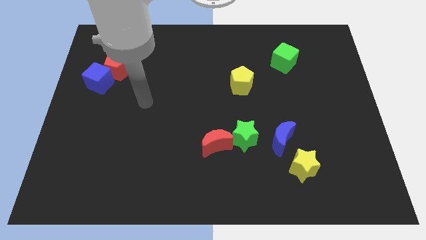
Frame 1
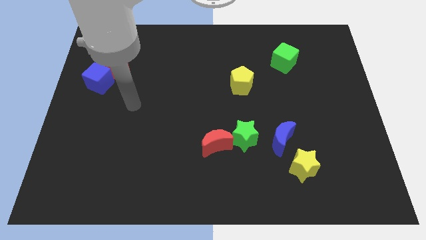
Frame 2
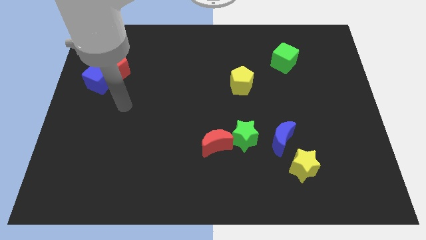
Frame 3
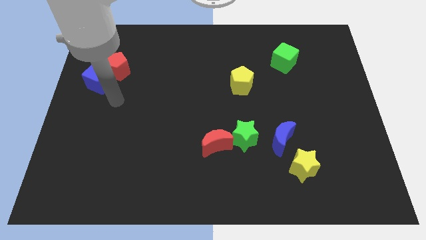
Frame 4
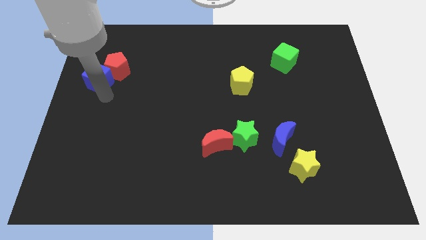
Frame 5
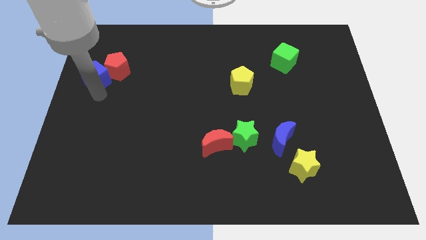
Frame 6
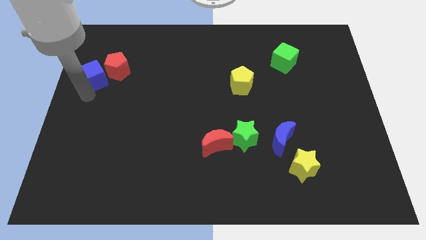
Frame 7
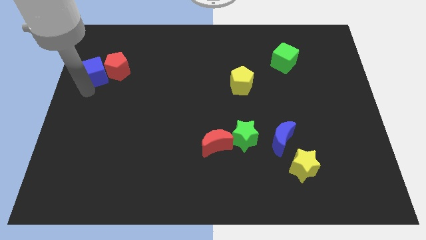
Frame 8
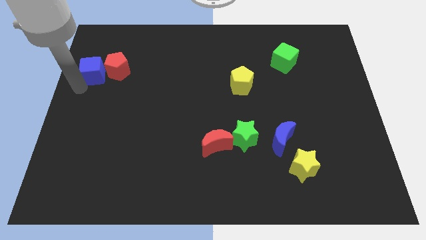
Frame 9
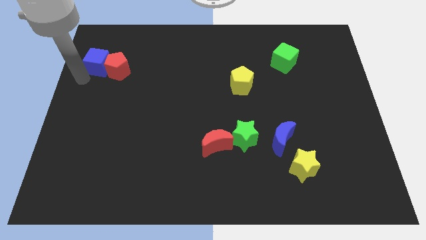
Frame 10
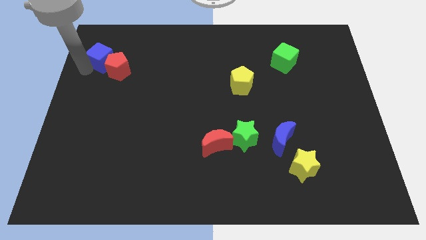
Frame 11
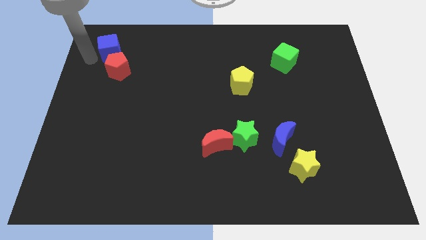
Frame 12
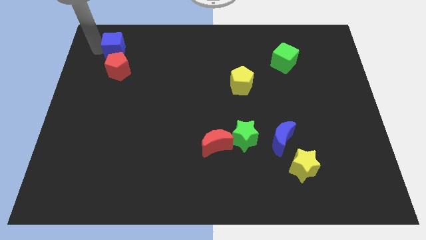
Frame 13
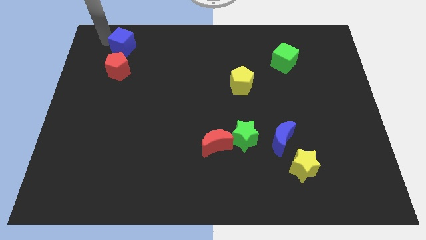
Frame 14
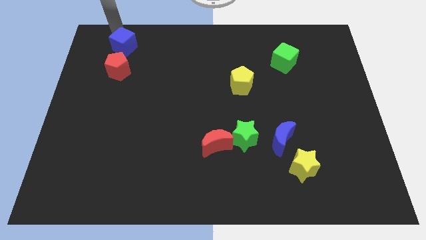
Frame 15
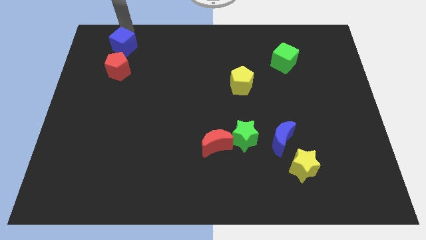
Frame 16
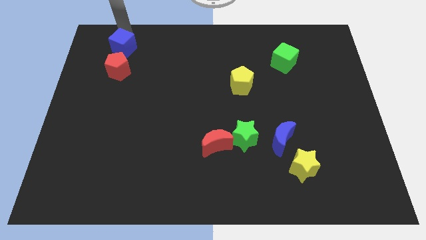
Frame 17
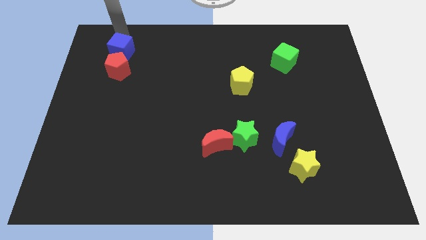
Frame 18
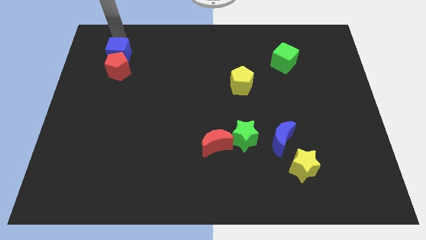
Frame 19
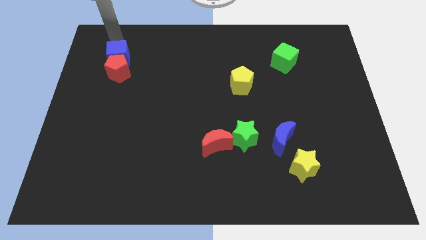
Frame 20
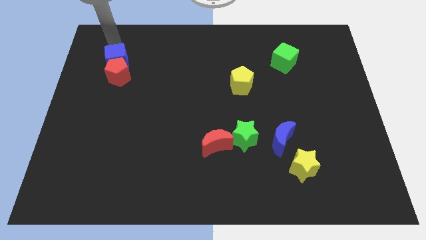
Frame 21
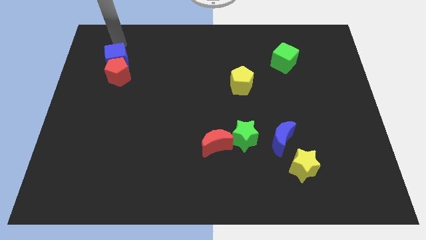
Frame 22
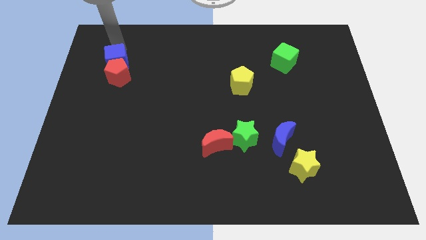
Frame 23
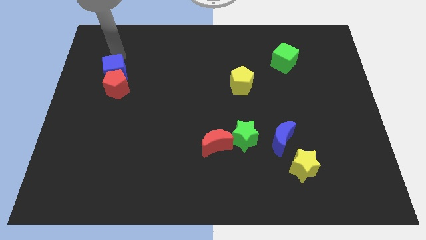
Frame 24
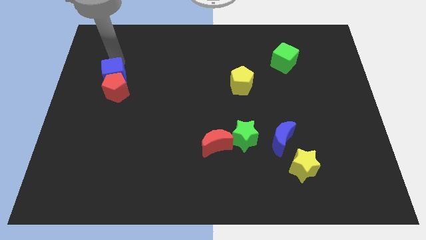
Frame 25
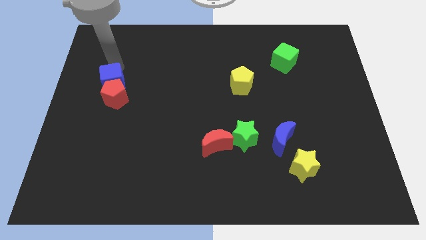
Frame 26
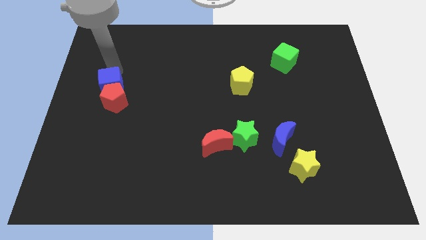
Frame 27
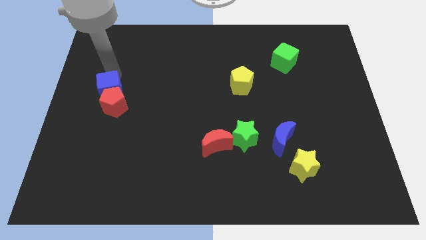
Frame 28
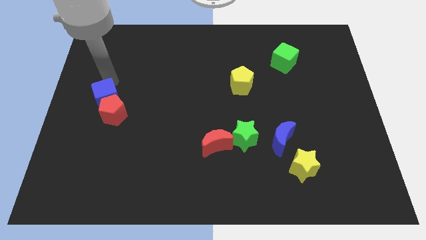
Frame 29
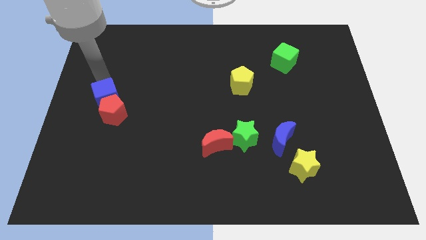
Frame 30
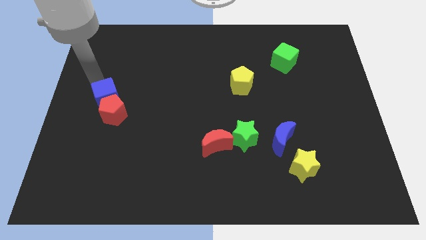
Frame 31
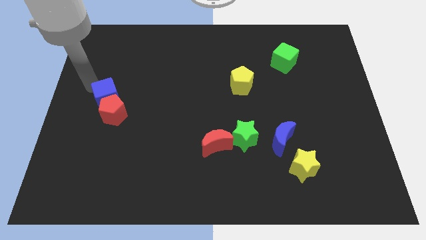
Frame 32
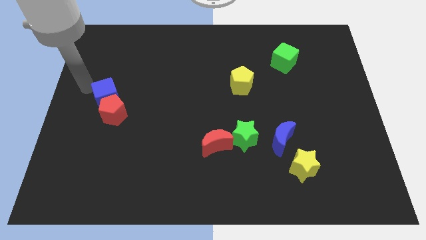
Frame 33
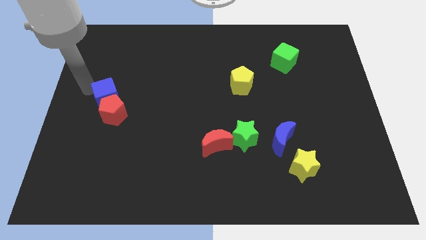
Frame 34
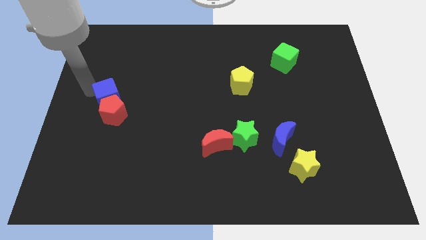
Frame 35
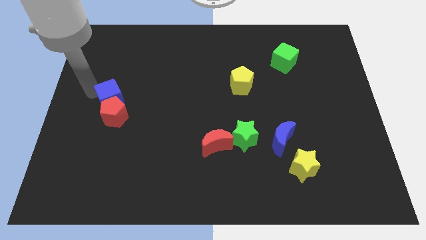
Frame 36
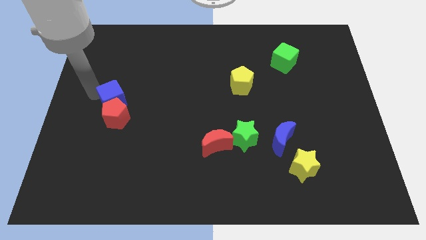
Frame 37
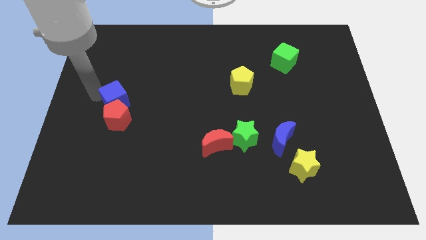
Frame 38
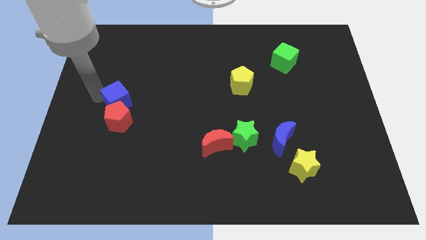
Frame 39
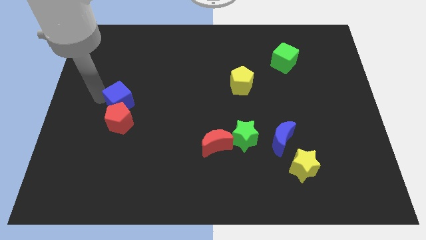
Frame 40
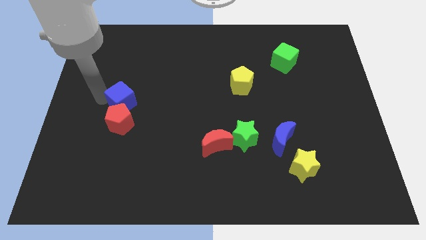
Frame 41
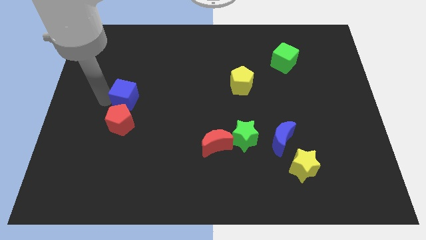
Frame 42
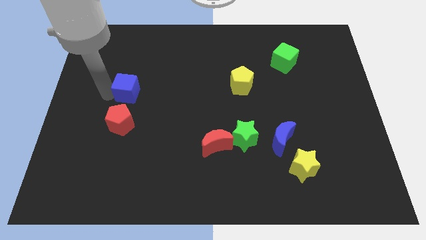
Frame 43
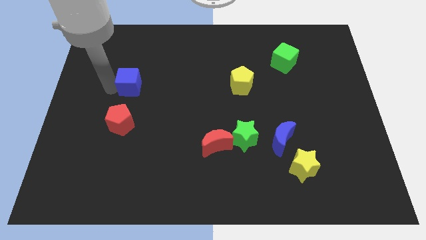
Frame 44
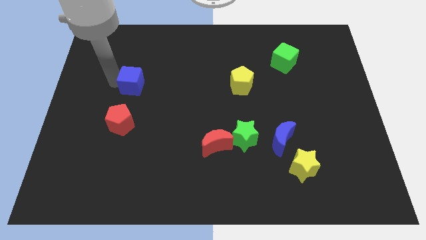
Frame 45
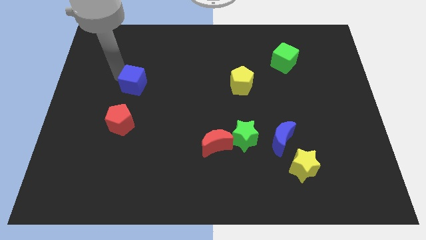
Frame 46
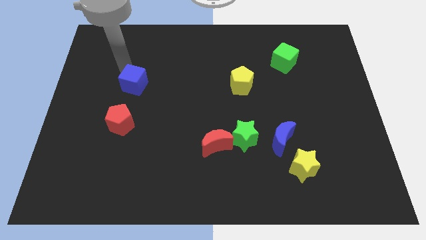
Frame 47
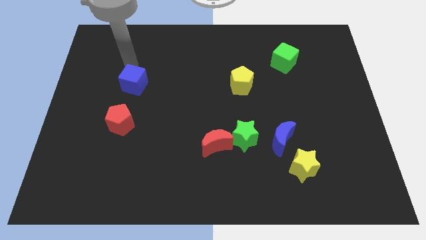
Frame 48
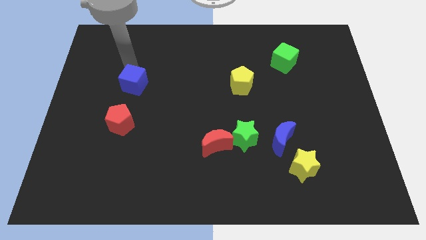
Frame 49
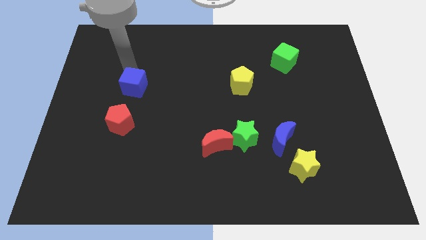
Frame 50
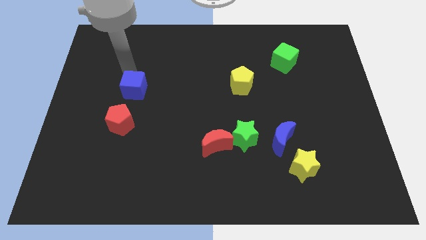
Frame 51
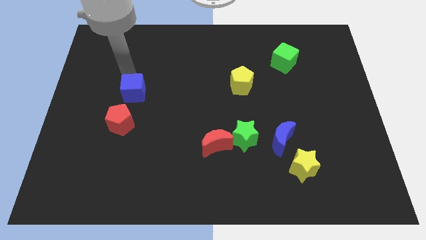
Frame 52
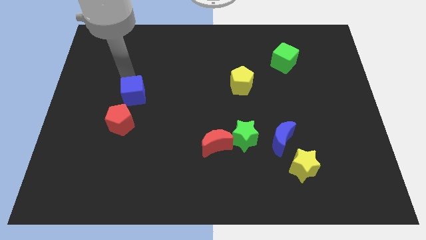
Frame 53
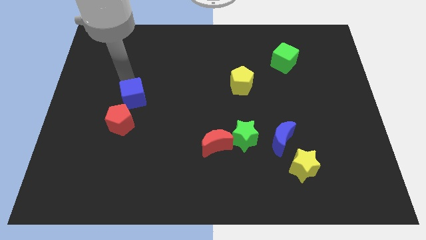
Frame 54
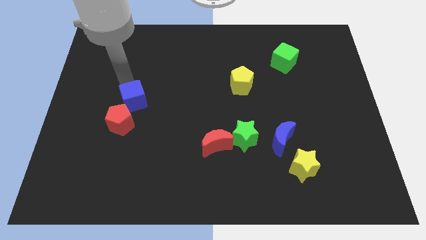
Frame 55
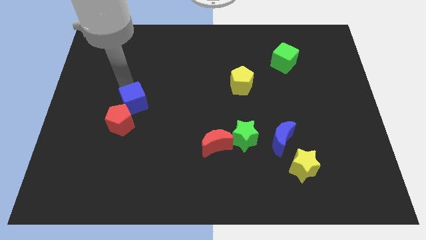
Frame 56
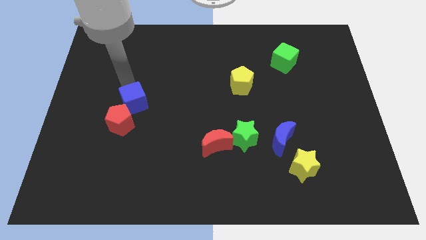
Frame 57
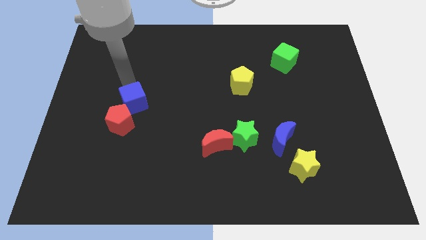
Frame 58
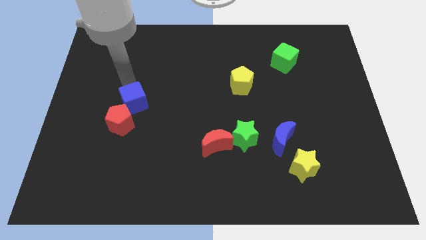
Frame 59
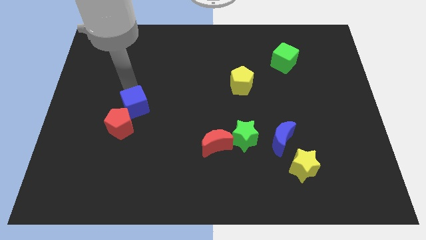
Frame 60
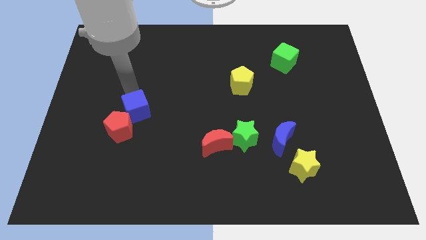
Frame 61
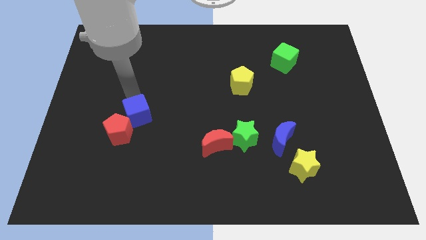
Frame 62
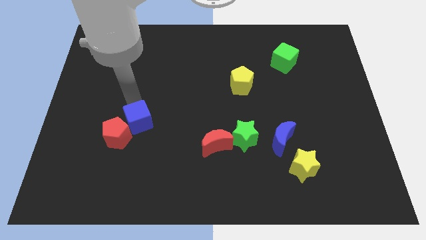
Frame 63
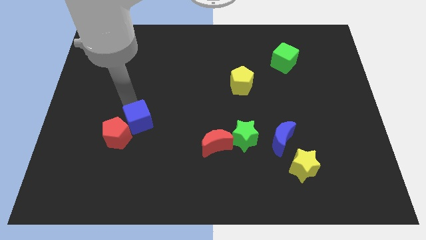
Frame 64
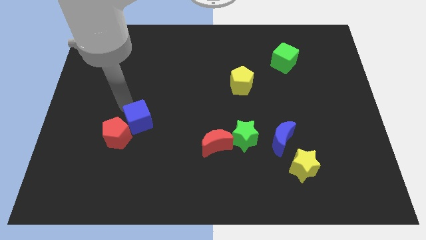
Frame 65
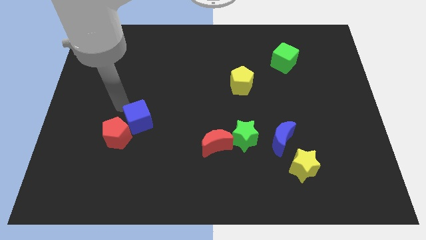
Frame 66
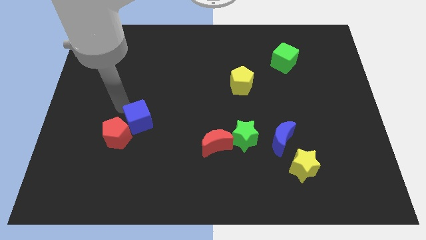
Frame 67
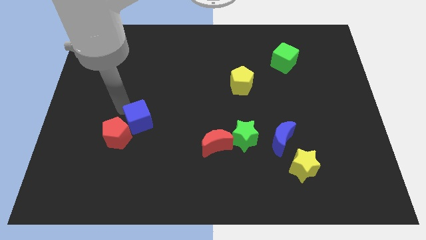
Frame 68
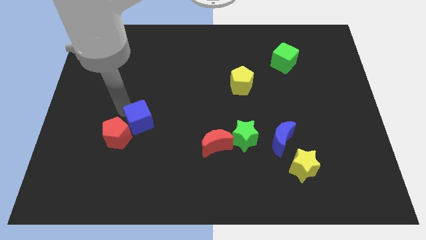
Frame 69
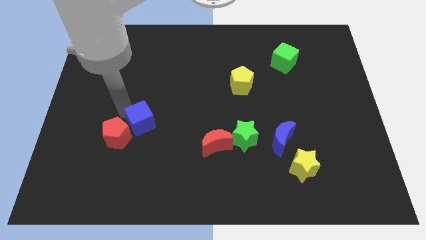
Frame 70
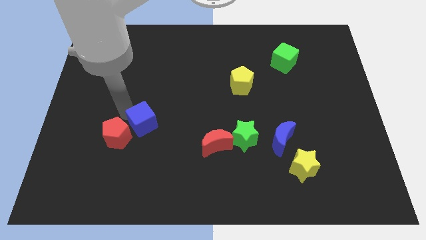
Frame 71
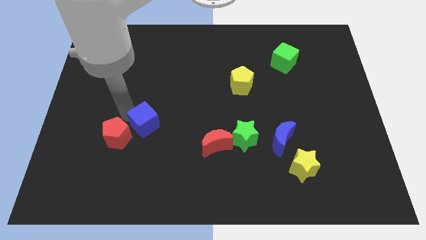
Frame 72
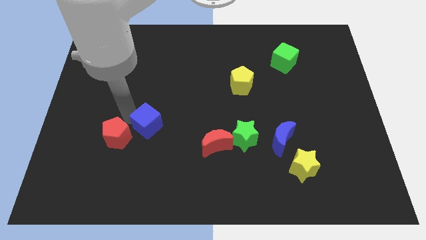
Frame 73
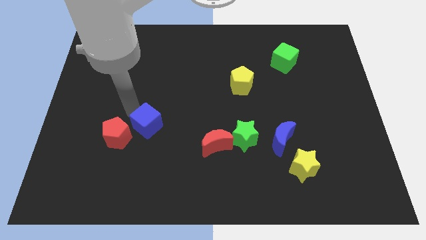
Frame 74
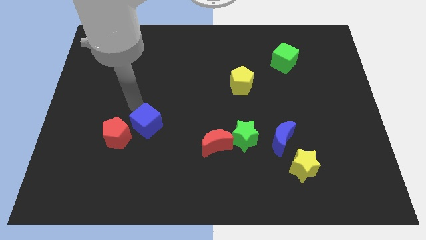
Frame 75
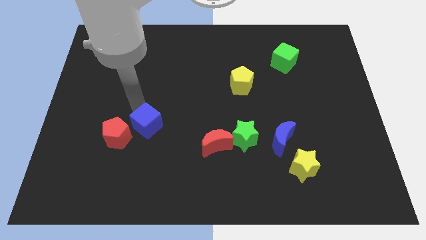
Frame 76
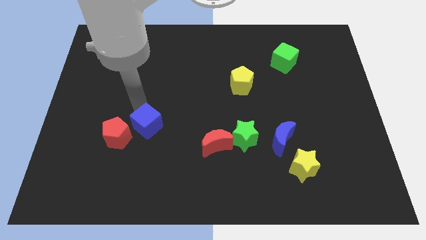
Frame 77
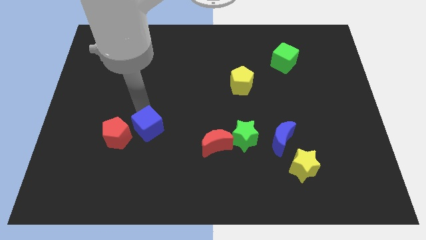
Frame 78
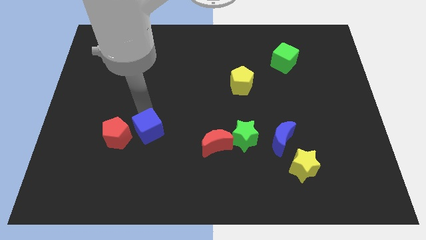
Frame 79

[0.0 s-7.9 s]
move the blue cube diagonally down and right

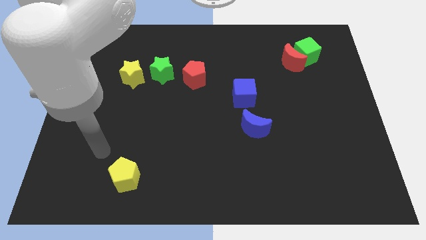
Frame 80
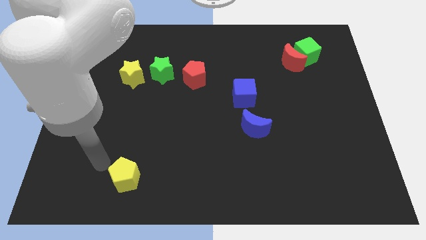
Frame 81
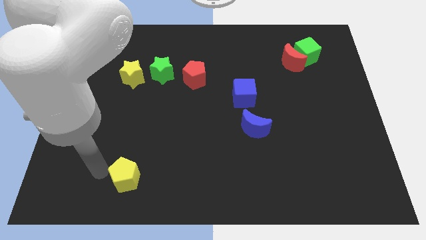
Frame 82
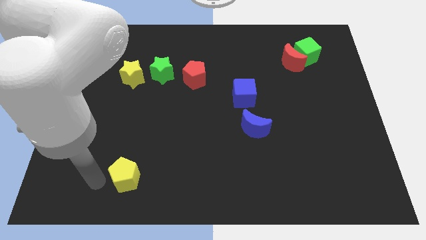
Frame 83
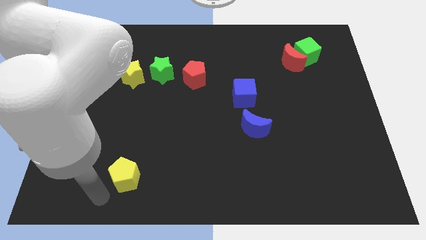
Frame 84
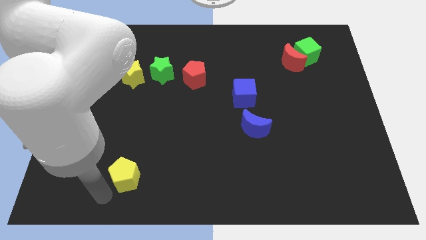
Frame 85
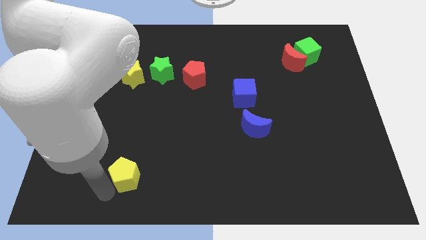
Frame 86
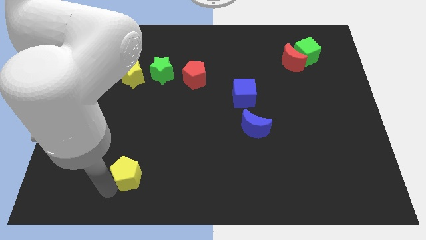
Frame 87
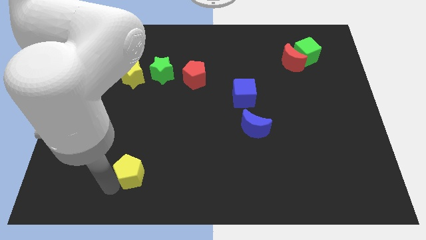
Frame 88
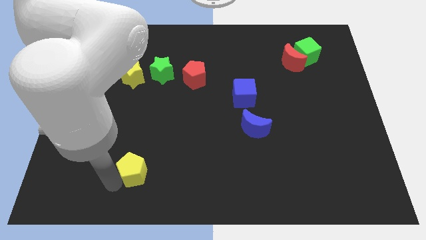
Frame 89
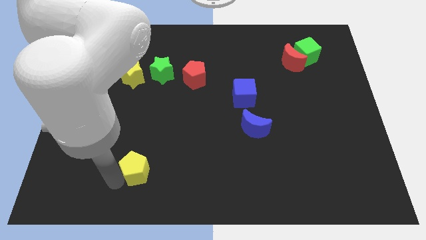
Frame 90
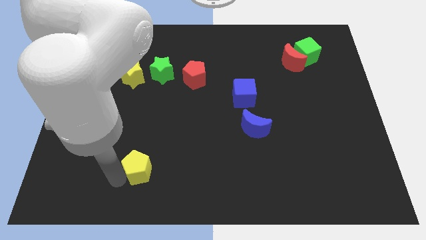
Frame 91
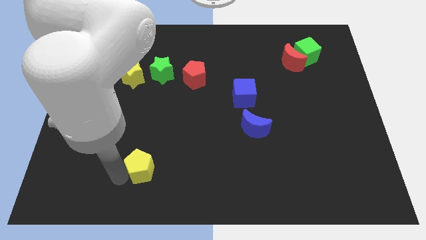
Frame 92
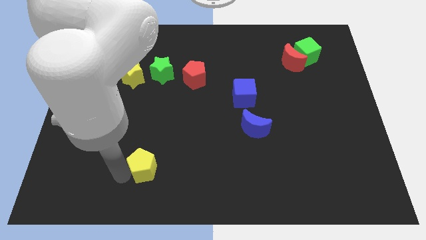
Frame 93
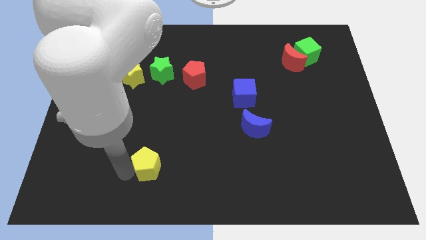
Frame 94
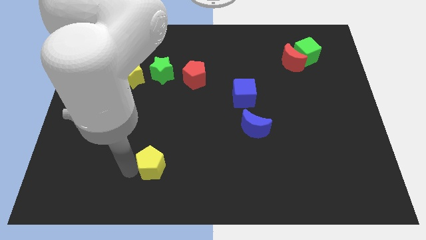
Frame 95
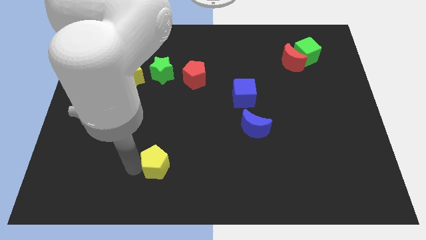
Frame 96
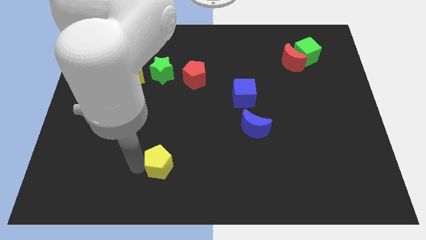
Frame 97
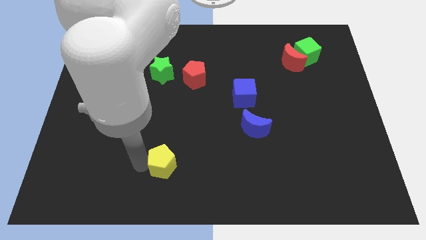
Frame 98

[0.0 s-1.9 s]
slide the yellow pentagon a little bit upwards and to the right
